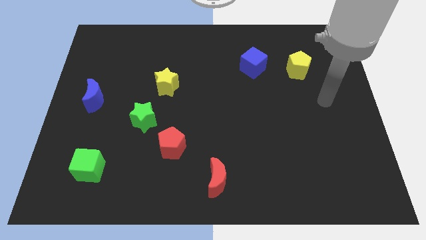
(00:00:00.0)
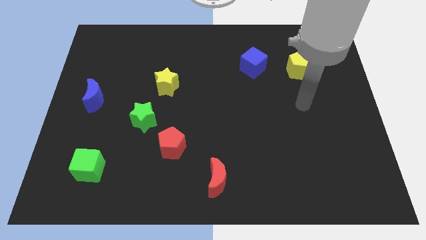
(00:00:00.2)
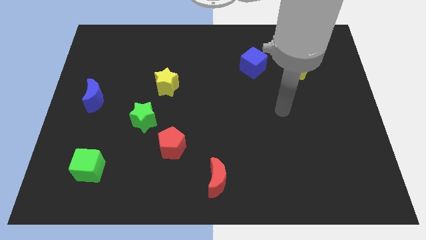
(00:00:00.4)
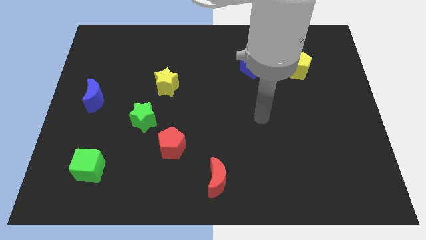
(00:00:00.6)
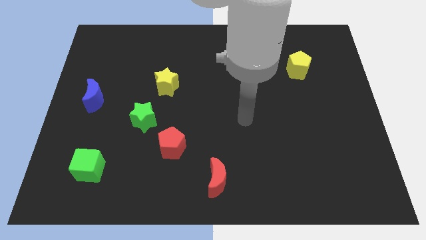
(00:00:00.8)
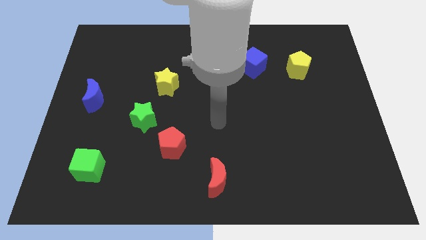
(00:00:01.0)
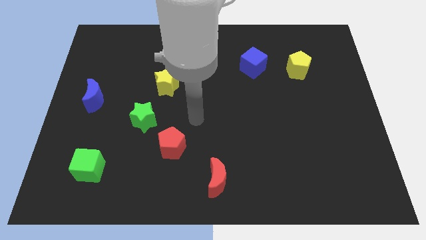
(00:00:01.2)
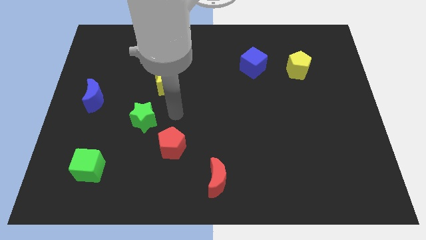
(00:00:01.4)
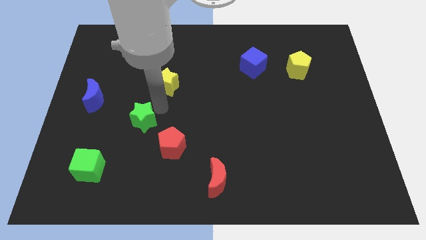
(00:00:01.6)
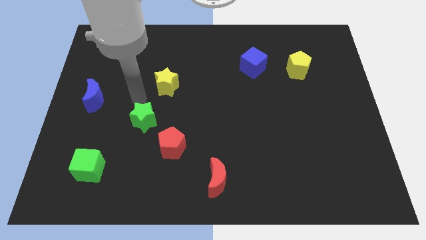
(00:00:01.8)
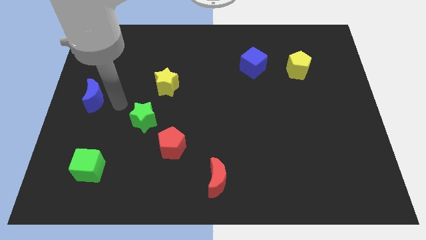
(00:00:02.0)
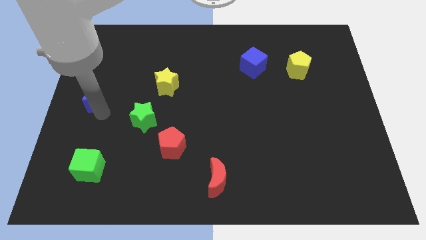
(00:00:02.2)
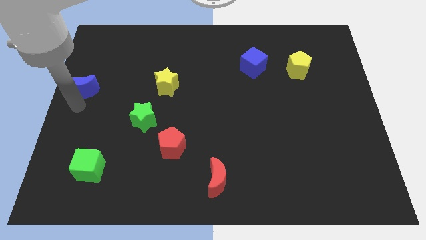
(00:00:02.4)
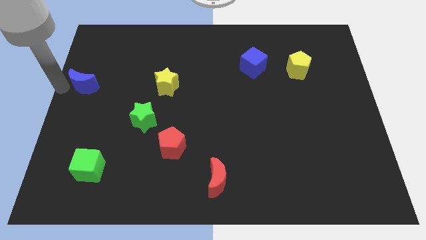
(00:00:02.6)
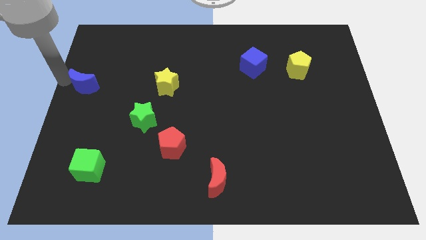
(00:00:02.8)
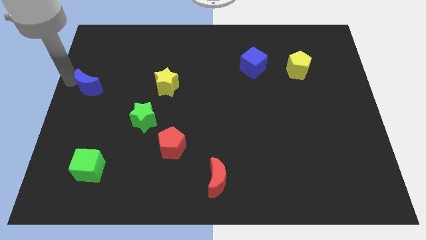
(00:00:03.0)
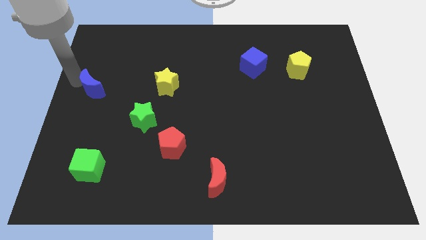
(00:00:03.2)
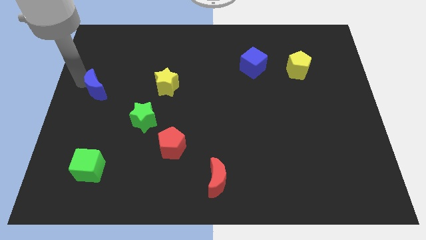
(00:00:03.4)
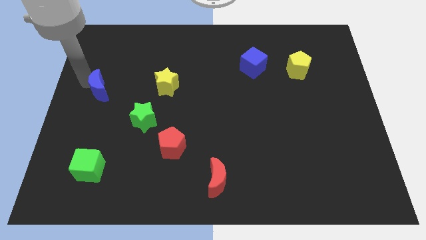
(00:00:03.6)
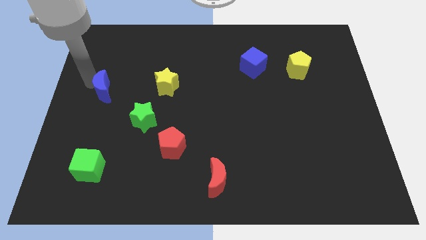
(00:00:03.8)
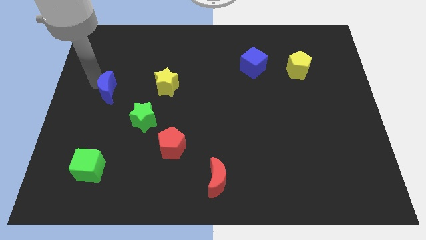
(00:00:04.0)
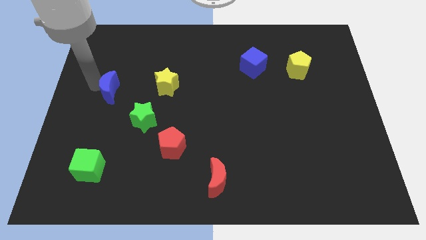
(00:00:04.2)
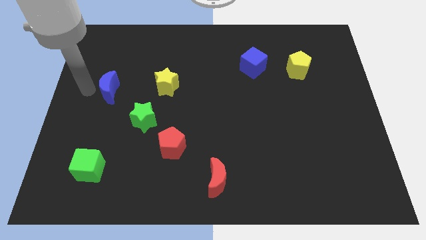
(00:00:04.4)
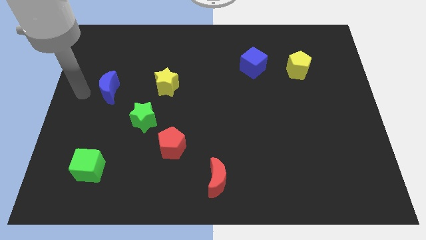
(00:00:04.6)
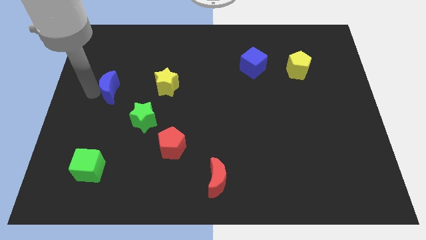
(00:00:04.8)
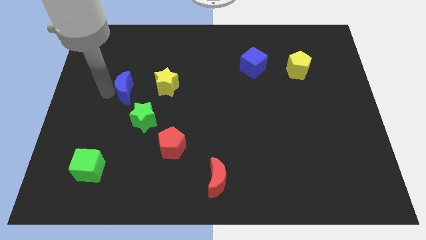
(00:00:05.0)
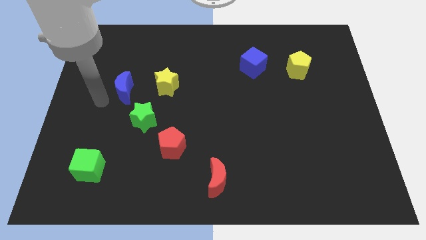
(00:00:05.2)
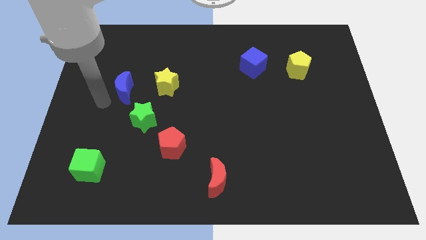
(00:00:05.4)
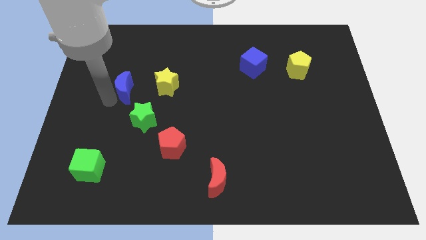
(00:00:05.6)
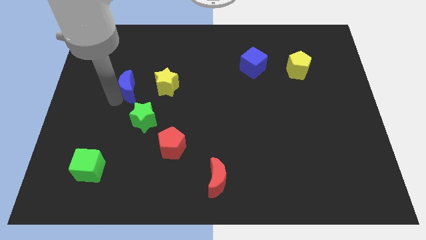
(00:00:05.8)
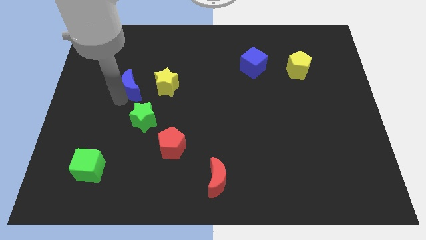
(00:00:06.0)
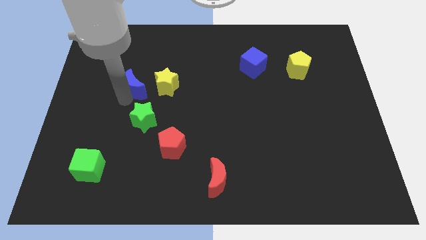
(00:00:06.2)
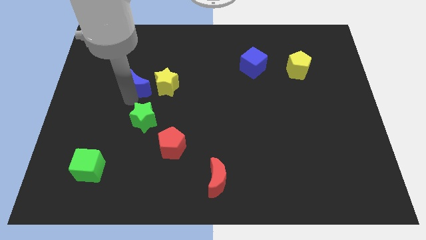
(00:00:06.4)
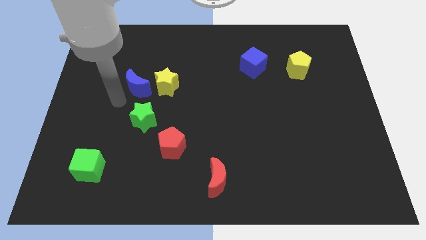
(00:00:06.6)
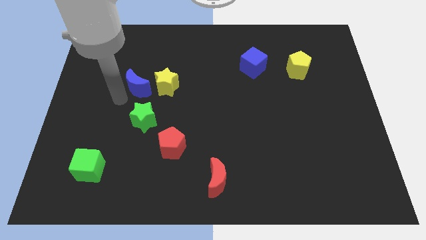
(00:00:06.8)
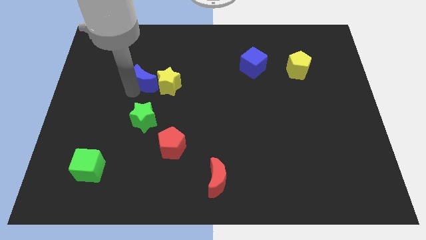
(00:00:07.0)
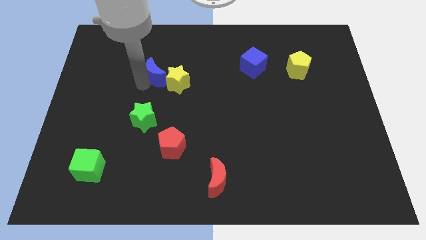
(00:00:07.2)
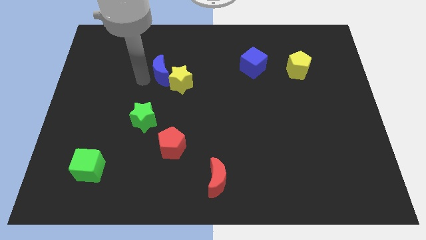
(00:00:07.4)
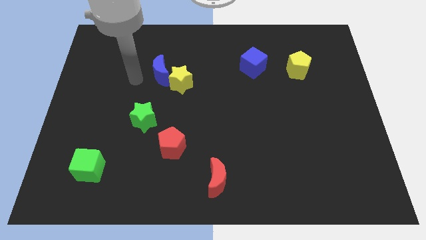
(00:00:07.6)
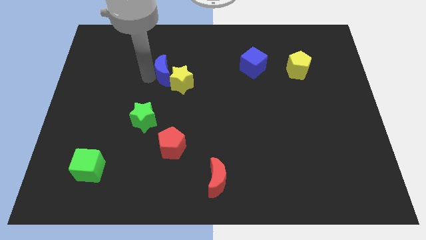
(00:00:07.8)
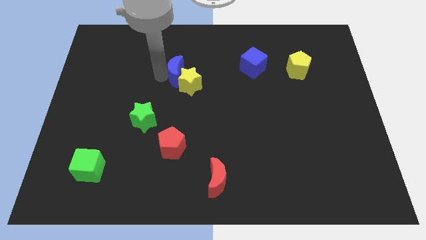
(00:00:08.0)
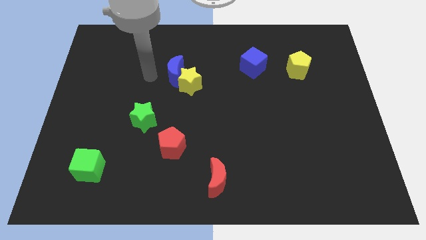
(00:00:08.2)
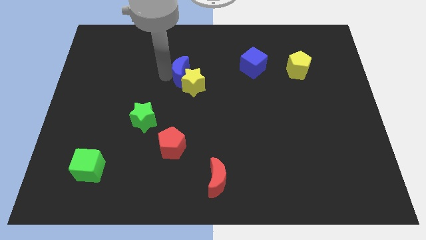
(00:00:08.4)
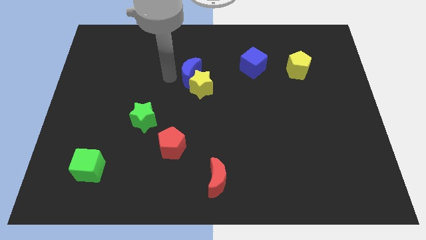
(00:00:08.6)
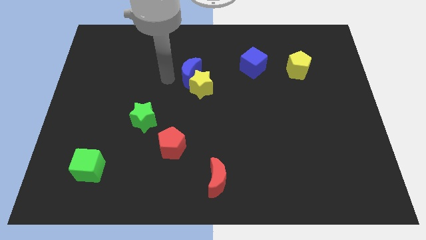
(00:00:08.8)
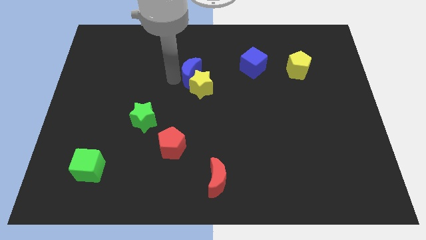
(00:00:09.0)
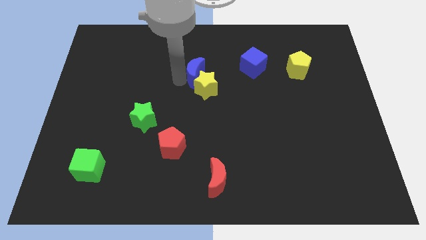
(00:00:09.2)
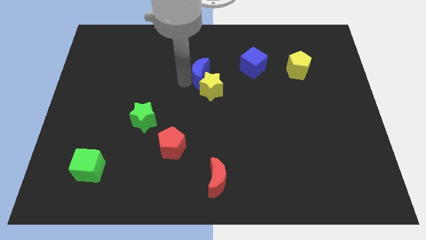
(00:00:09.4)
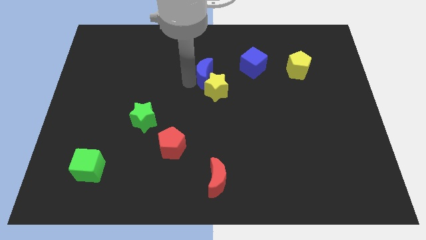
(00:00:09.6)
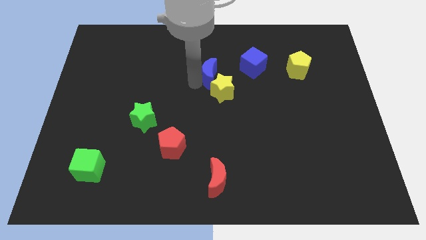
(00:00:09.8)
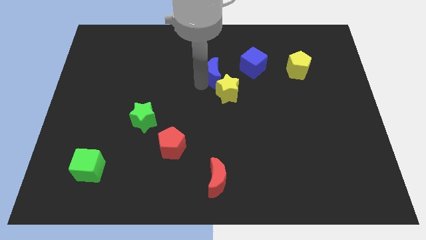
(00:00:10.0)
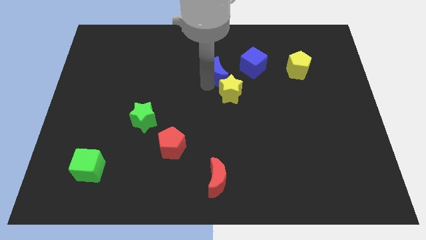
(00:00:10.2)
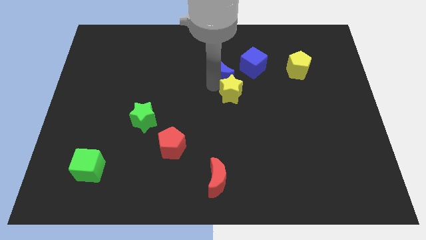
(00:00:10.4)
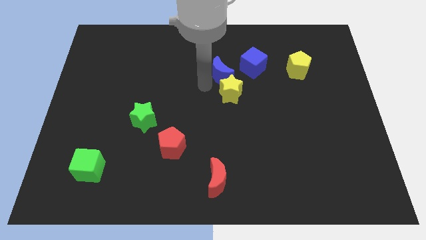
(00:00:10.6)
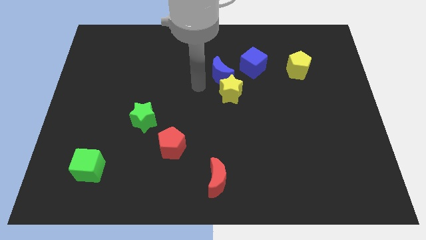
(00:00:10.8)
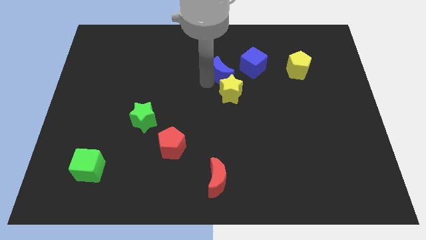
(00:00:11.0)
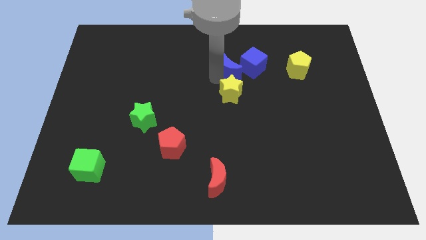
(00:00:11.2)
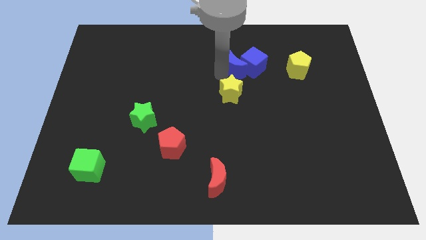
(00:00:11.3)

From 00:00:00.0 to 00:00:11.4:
put the blue moon to the left of the yellow pentagon
